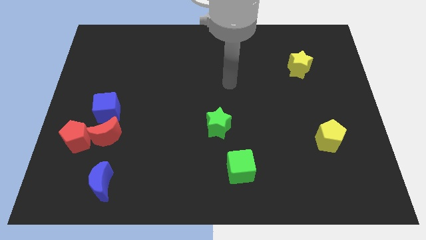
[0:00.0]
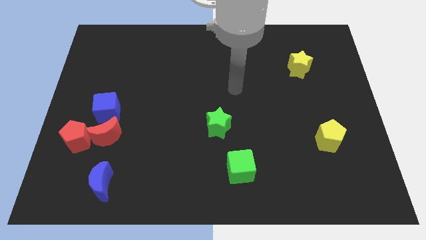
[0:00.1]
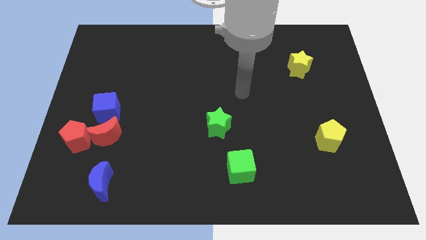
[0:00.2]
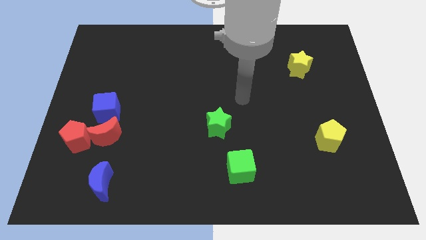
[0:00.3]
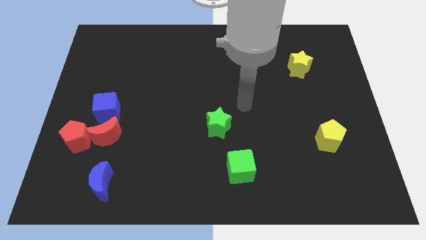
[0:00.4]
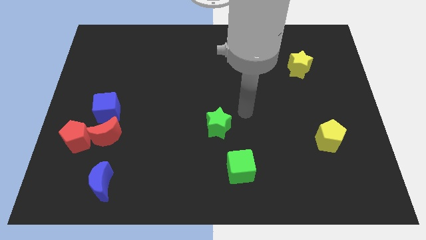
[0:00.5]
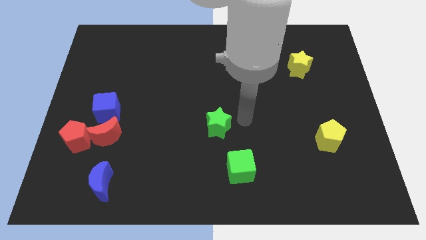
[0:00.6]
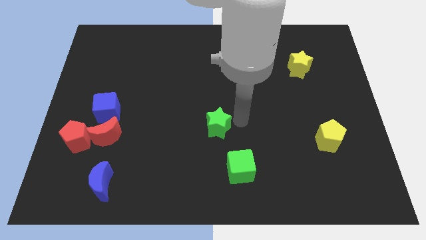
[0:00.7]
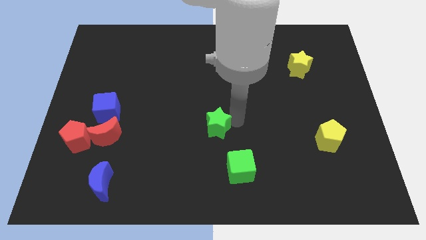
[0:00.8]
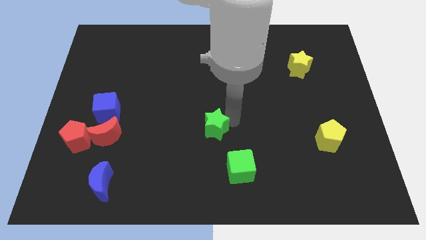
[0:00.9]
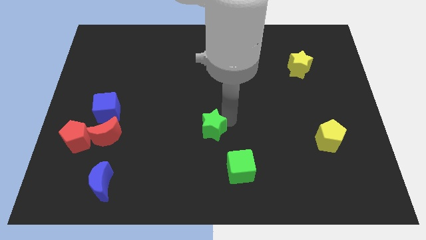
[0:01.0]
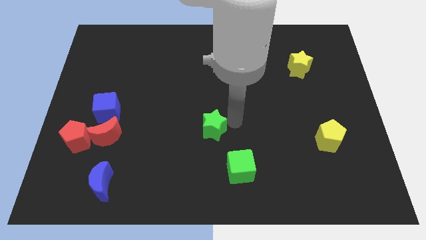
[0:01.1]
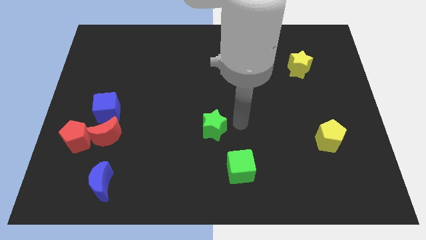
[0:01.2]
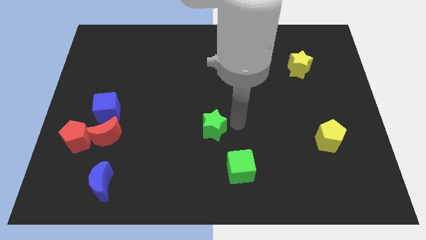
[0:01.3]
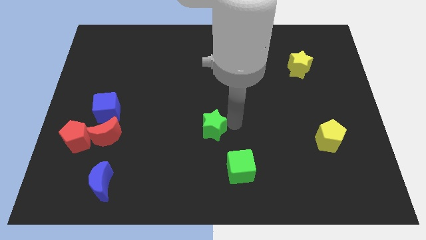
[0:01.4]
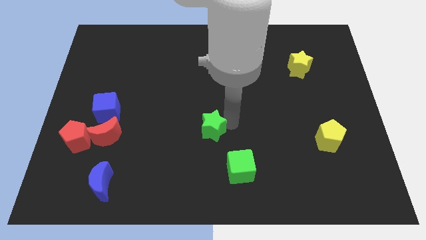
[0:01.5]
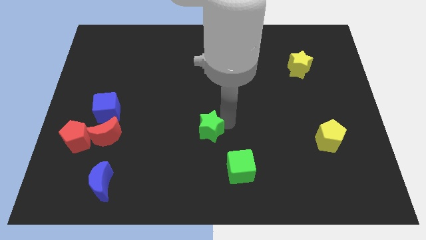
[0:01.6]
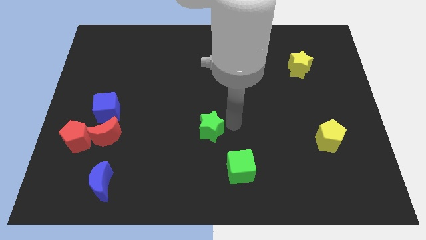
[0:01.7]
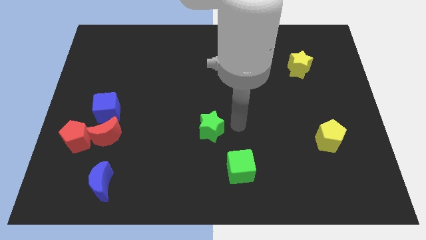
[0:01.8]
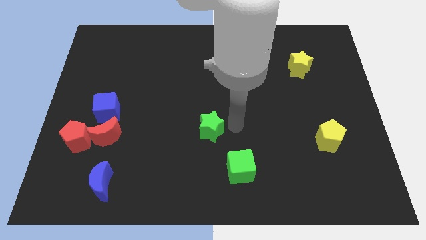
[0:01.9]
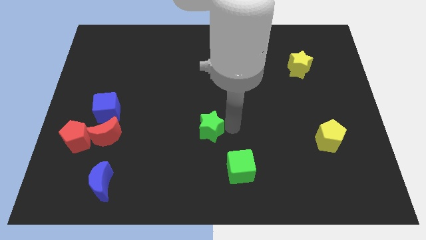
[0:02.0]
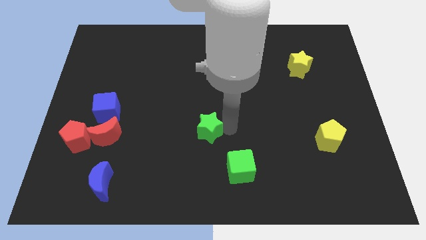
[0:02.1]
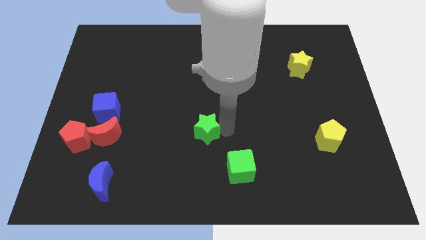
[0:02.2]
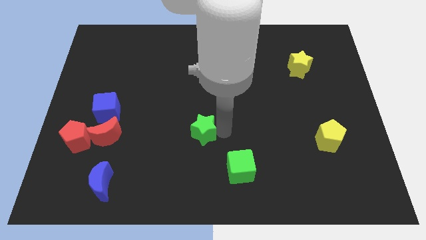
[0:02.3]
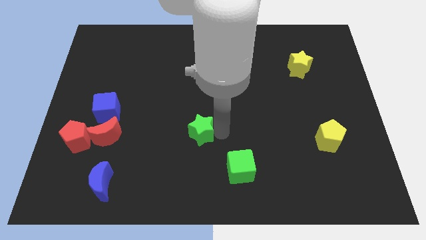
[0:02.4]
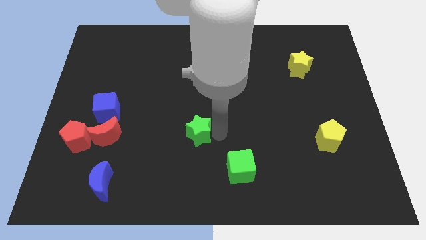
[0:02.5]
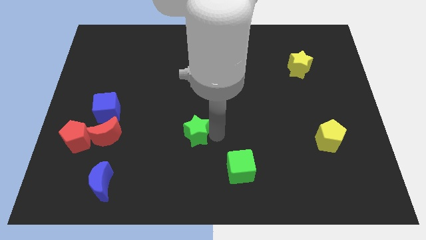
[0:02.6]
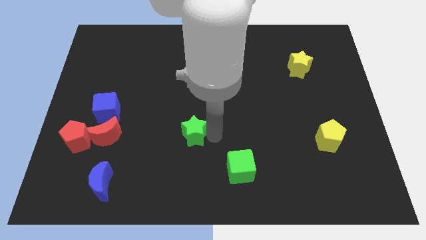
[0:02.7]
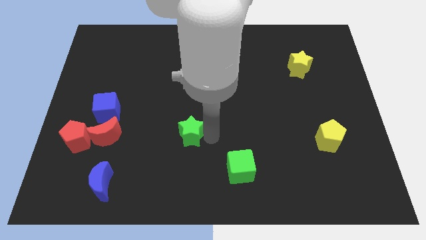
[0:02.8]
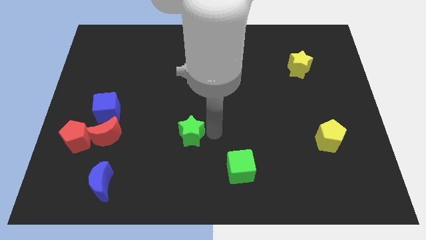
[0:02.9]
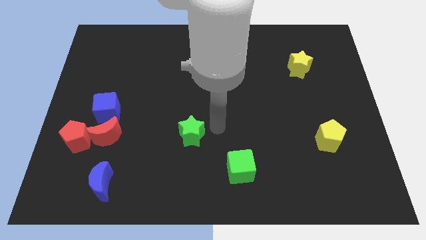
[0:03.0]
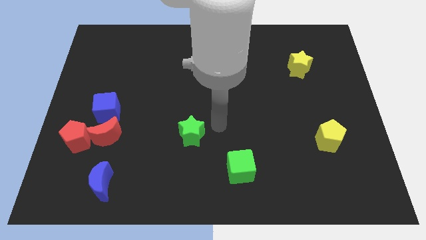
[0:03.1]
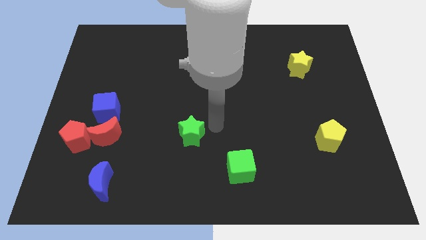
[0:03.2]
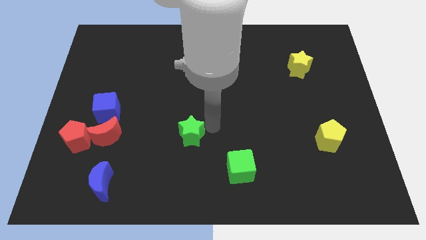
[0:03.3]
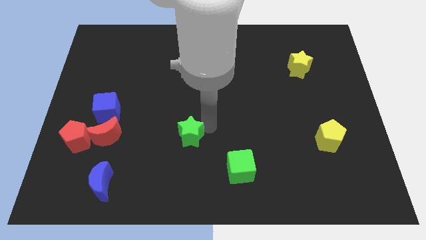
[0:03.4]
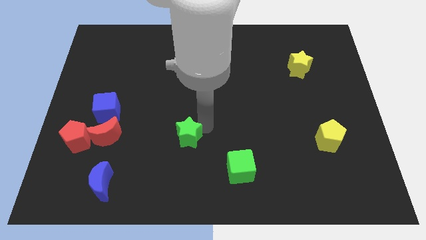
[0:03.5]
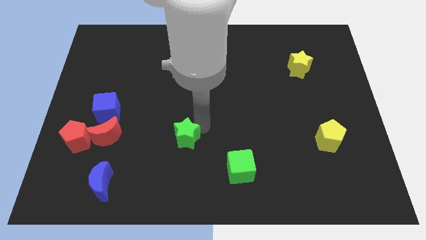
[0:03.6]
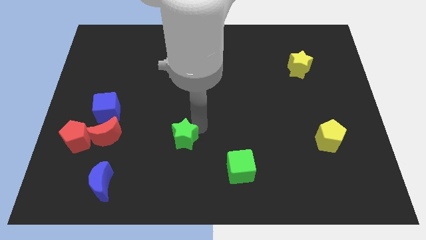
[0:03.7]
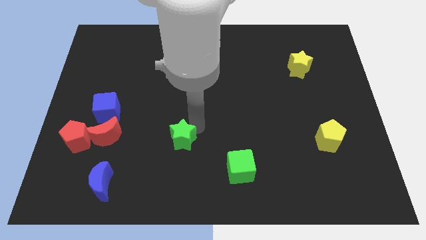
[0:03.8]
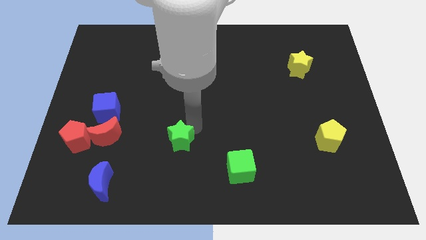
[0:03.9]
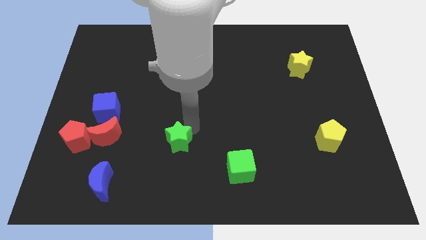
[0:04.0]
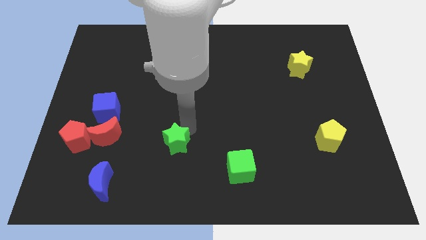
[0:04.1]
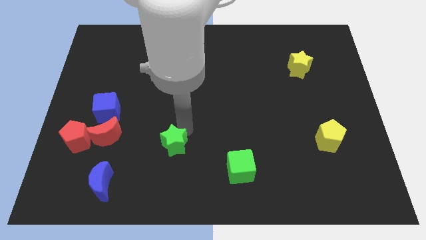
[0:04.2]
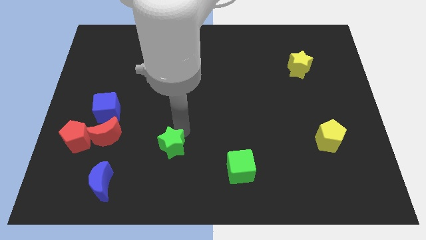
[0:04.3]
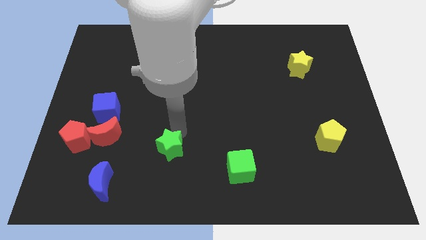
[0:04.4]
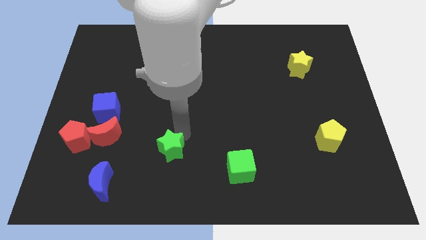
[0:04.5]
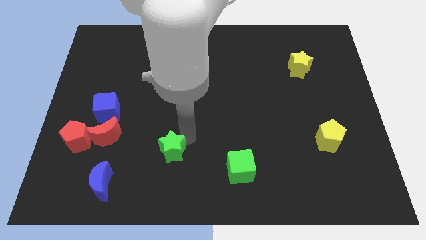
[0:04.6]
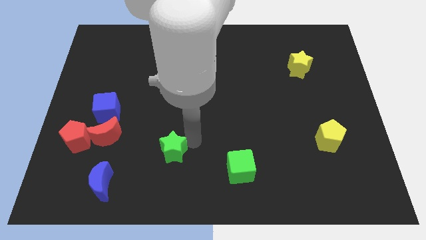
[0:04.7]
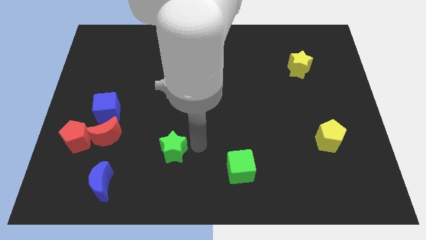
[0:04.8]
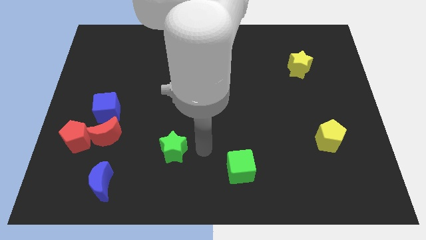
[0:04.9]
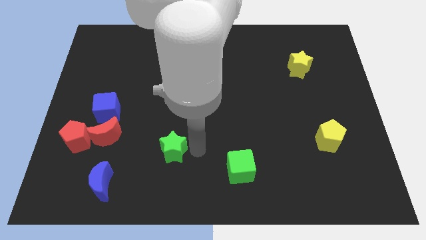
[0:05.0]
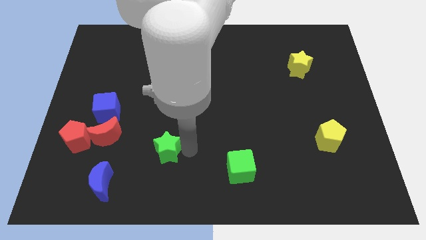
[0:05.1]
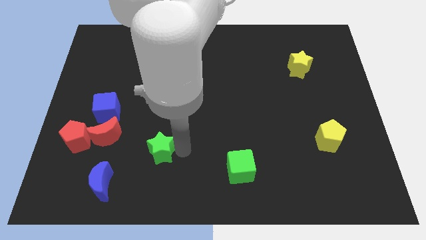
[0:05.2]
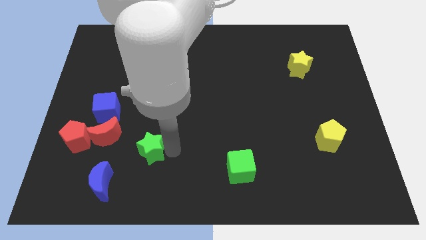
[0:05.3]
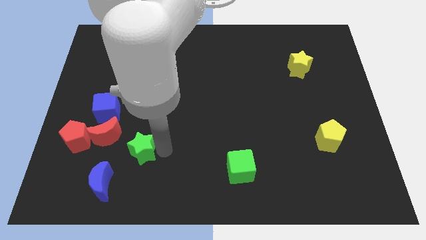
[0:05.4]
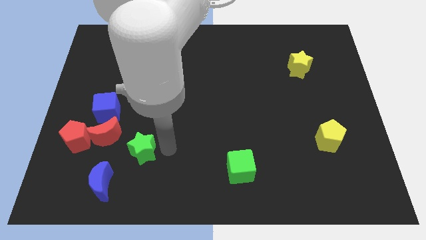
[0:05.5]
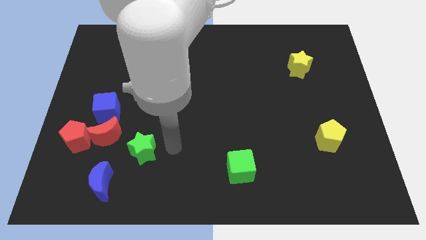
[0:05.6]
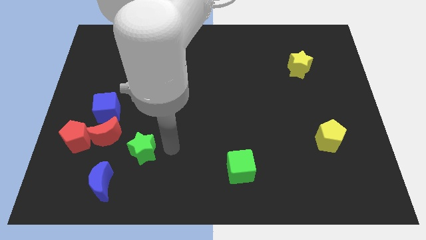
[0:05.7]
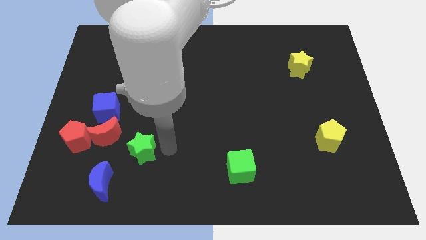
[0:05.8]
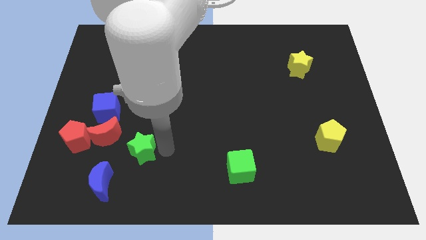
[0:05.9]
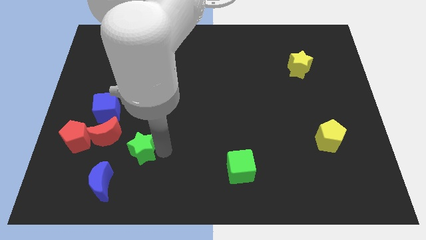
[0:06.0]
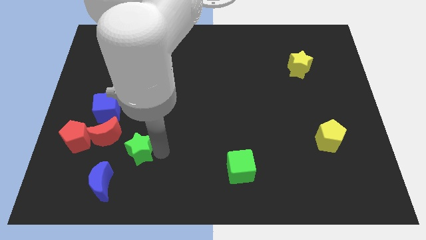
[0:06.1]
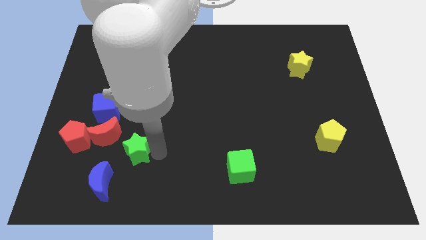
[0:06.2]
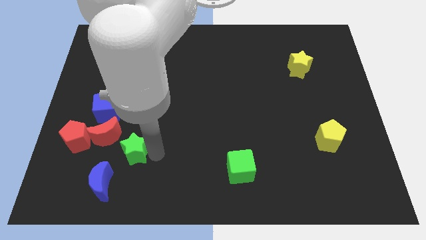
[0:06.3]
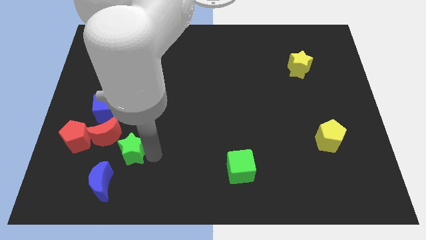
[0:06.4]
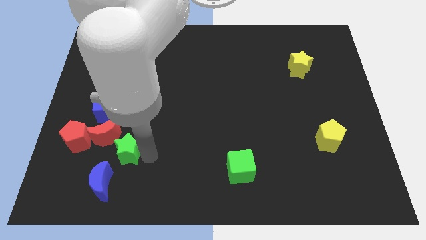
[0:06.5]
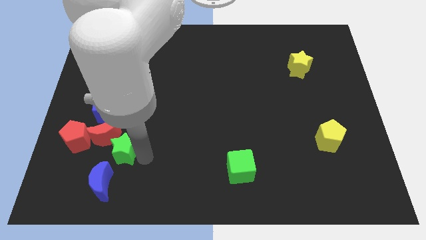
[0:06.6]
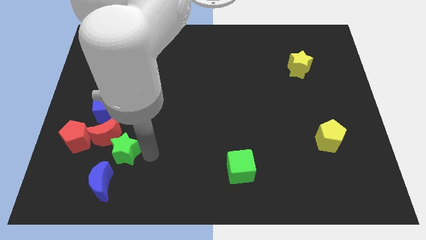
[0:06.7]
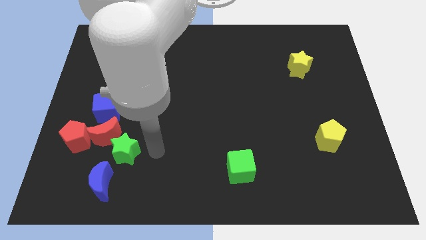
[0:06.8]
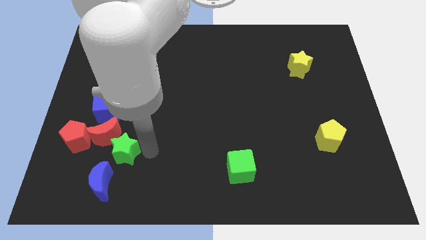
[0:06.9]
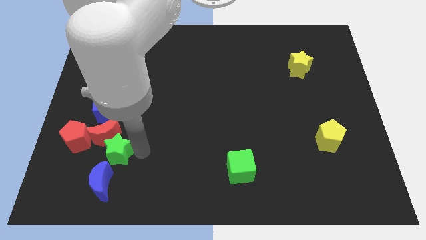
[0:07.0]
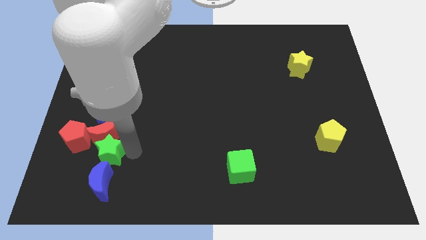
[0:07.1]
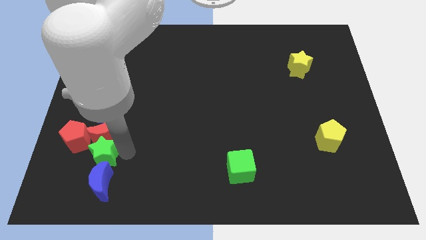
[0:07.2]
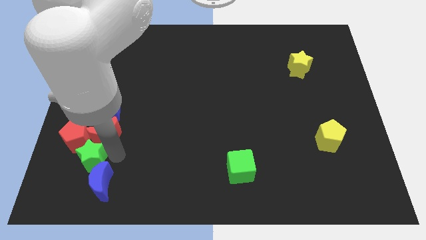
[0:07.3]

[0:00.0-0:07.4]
move the green star towards the red pentagon
